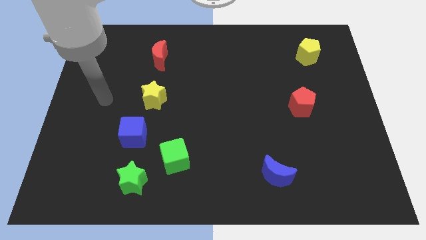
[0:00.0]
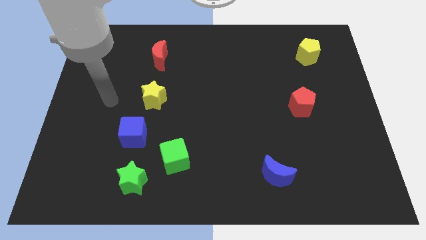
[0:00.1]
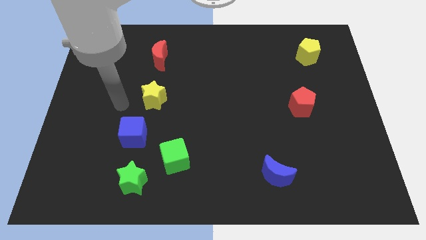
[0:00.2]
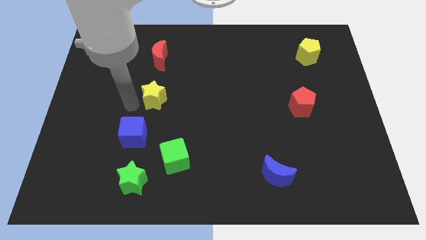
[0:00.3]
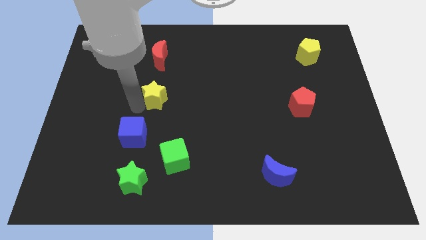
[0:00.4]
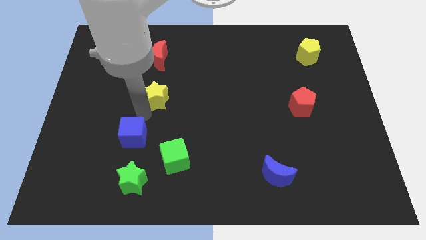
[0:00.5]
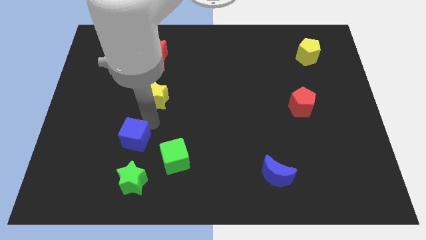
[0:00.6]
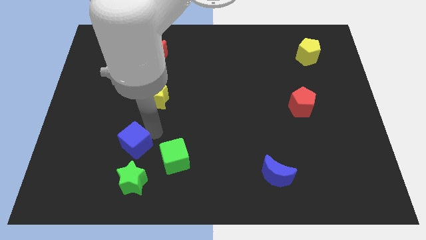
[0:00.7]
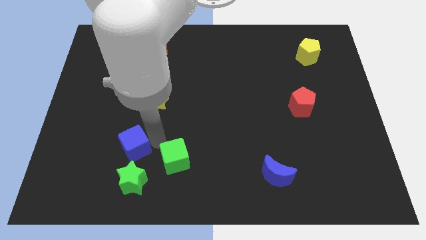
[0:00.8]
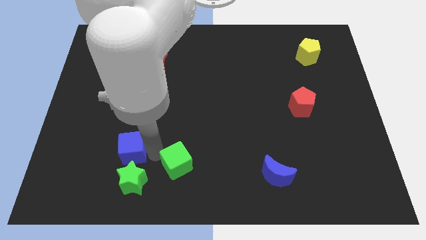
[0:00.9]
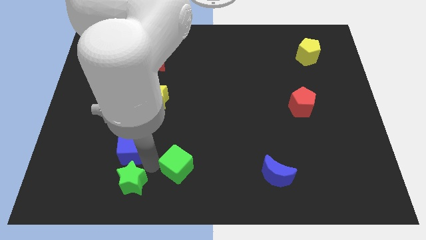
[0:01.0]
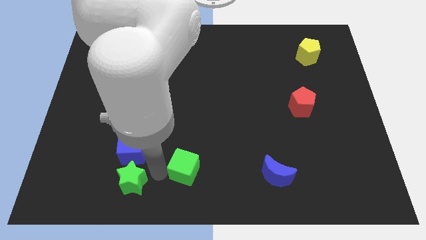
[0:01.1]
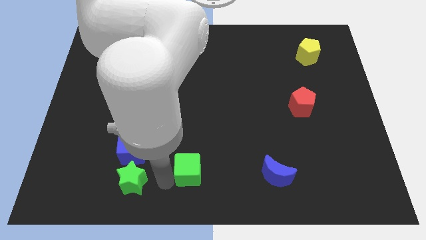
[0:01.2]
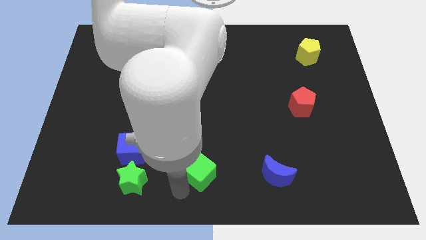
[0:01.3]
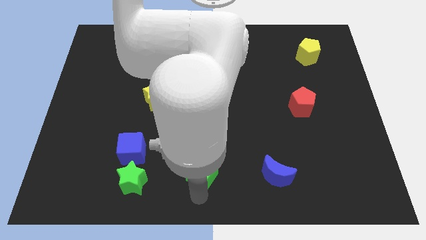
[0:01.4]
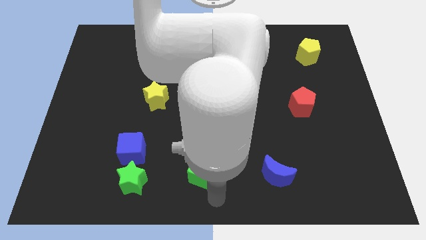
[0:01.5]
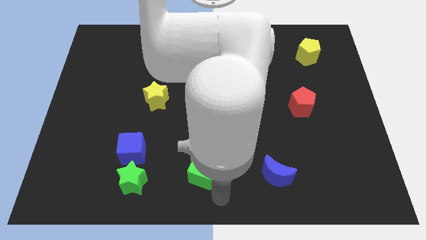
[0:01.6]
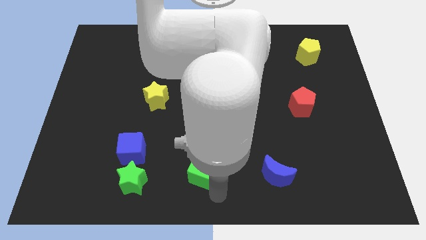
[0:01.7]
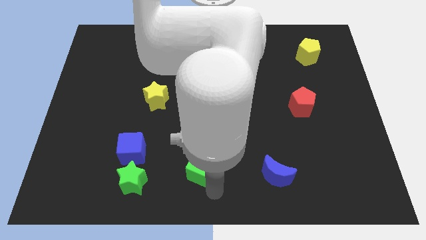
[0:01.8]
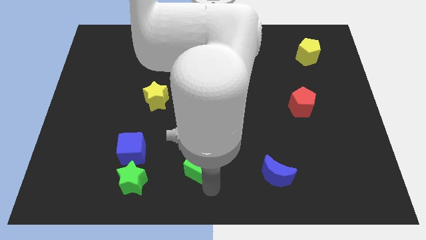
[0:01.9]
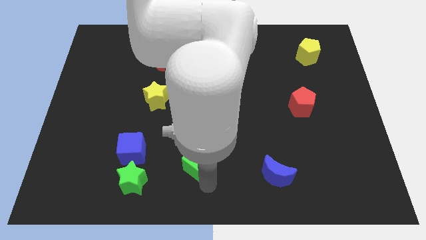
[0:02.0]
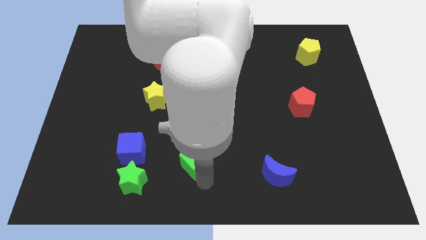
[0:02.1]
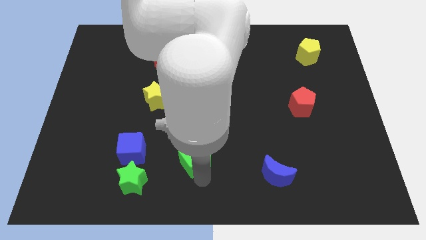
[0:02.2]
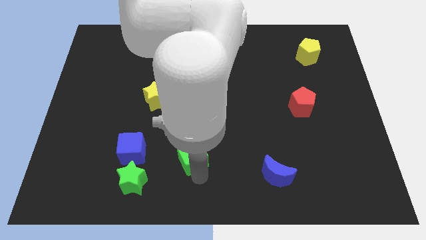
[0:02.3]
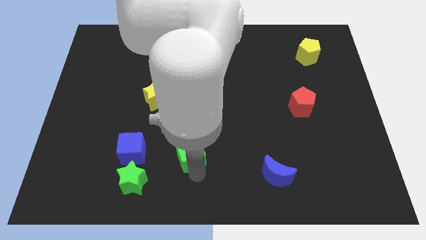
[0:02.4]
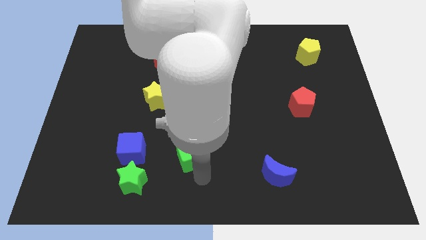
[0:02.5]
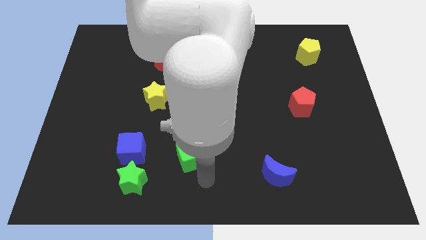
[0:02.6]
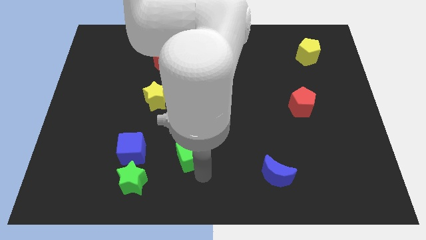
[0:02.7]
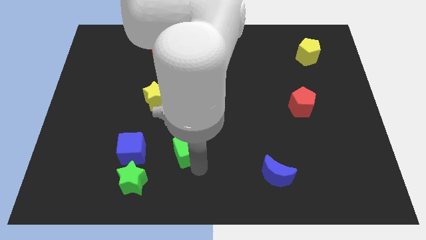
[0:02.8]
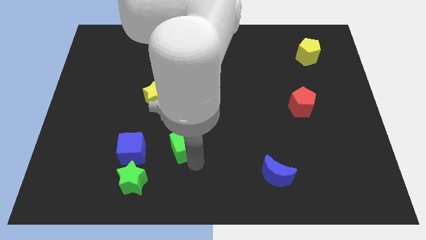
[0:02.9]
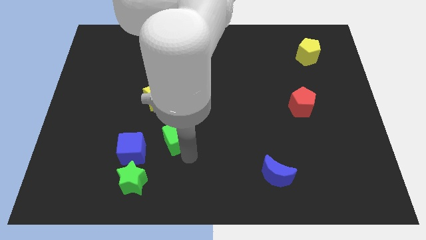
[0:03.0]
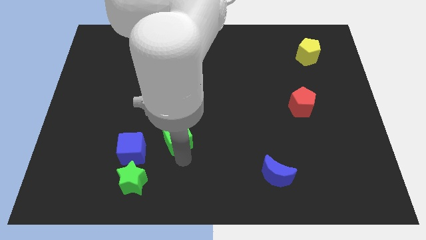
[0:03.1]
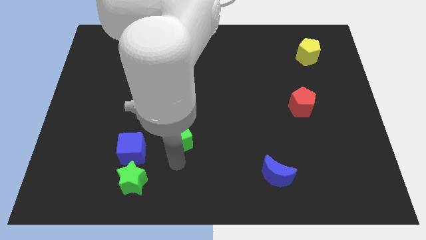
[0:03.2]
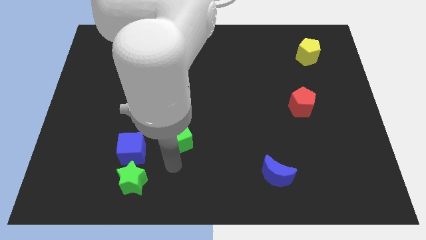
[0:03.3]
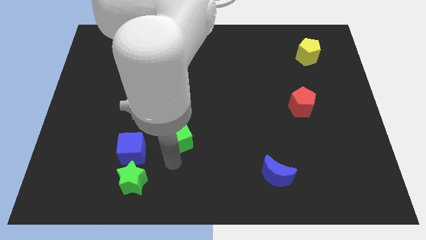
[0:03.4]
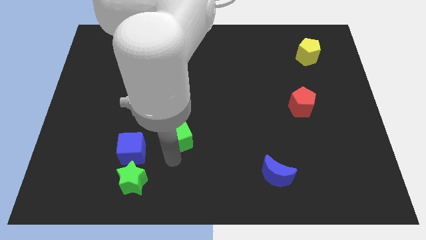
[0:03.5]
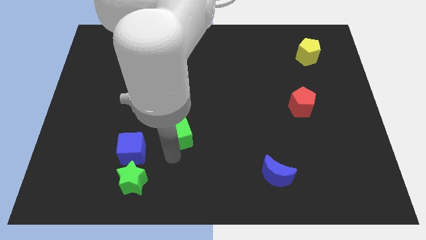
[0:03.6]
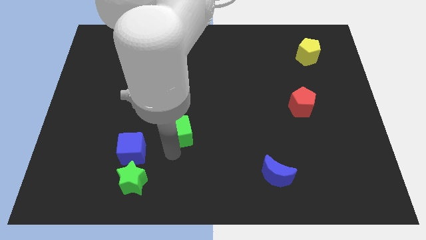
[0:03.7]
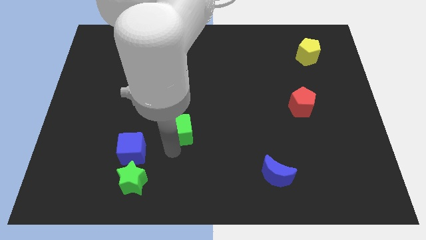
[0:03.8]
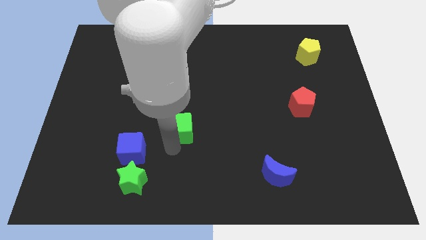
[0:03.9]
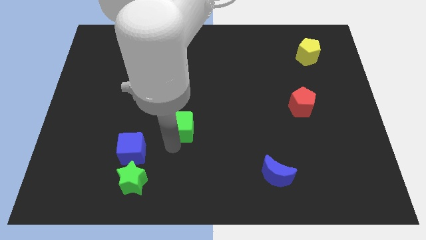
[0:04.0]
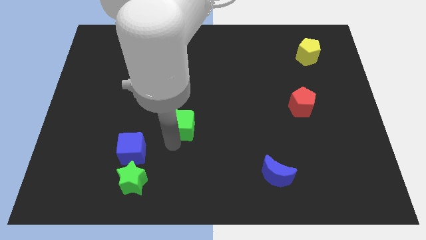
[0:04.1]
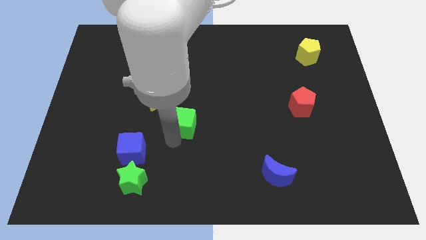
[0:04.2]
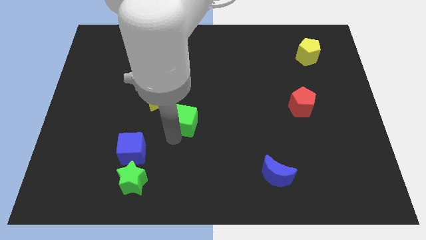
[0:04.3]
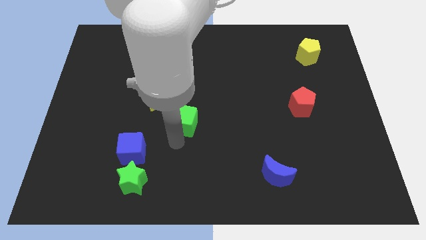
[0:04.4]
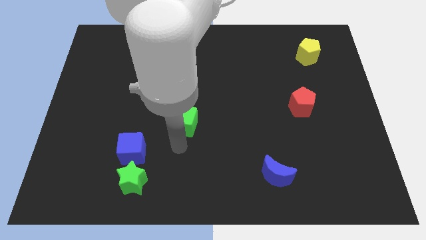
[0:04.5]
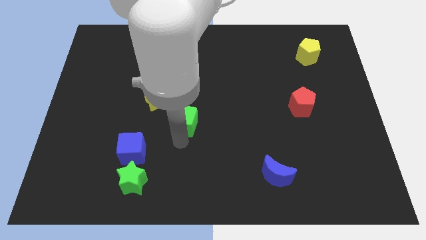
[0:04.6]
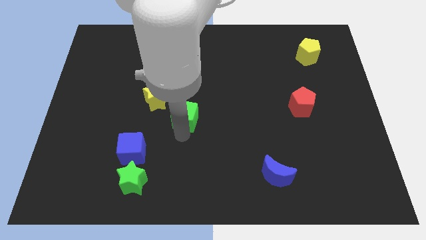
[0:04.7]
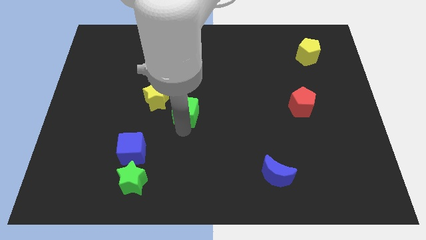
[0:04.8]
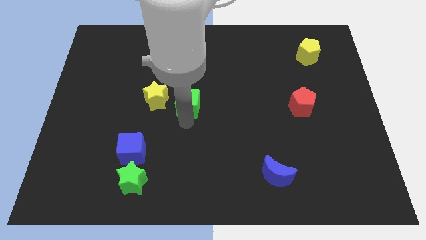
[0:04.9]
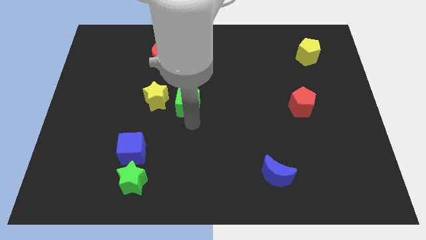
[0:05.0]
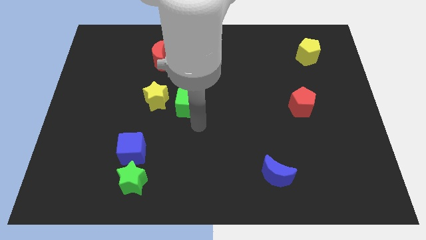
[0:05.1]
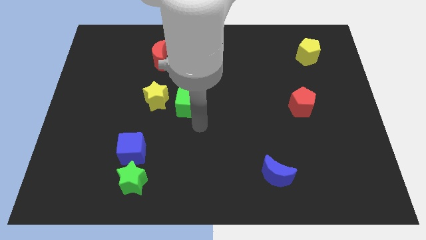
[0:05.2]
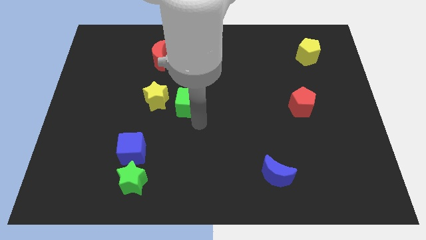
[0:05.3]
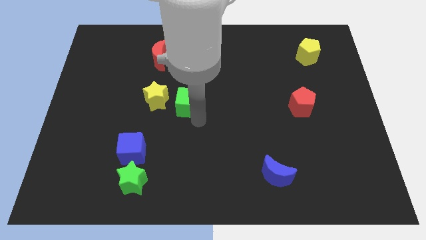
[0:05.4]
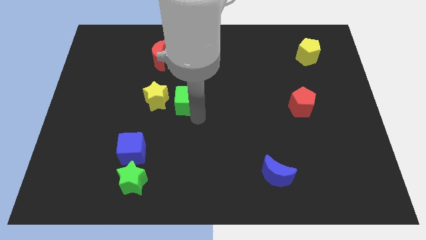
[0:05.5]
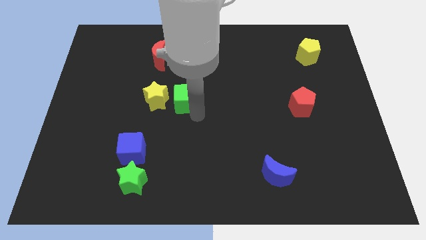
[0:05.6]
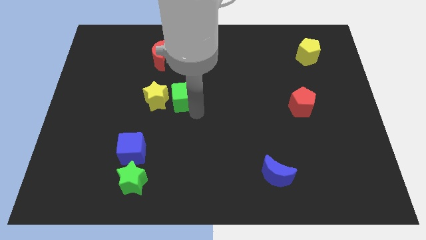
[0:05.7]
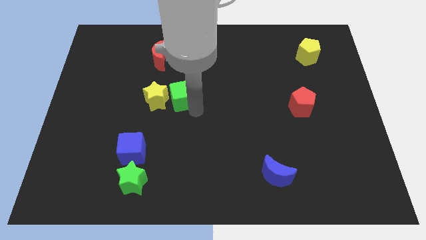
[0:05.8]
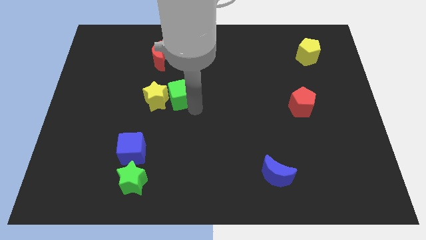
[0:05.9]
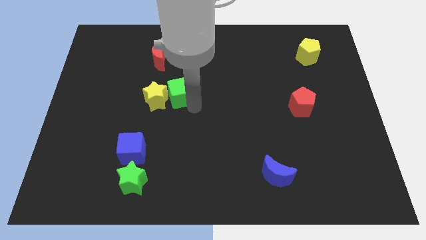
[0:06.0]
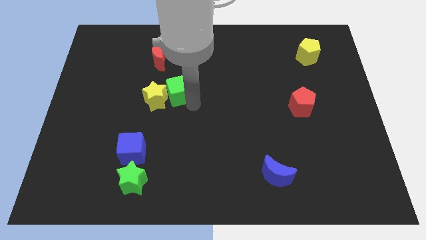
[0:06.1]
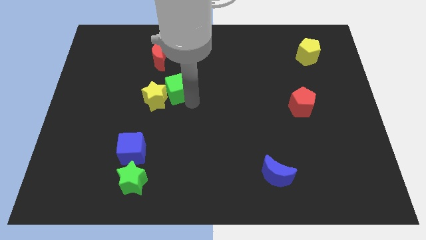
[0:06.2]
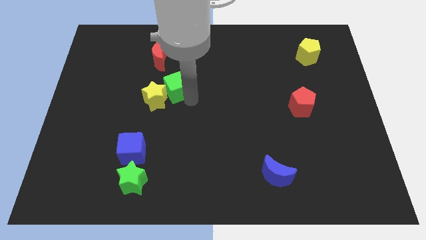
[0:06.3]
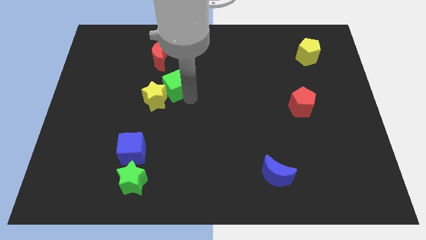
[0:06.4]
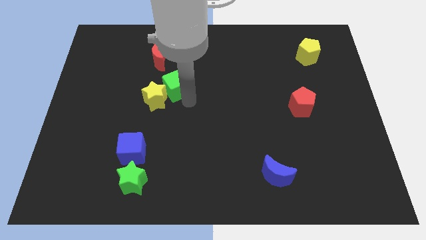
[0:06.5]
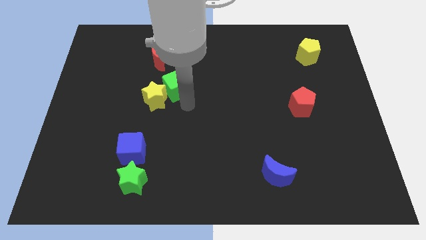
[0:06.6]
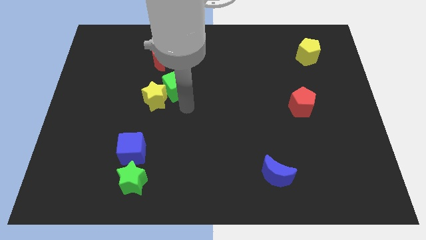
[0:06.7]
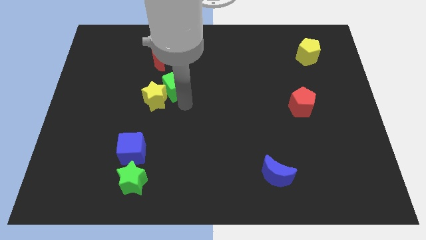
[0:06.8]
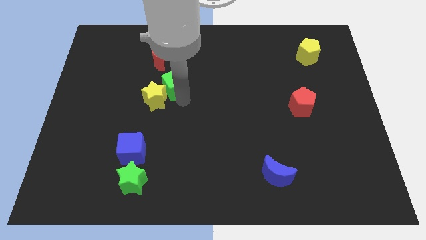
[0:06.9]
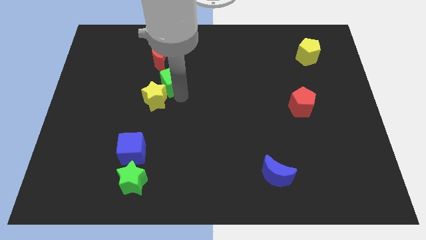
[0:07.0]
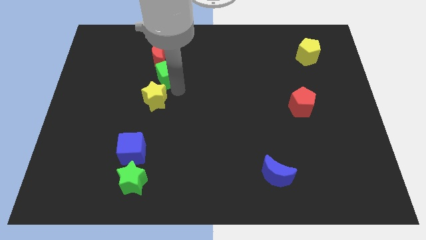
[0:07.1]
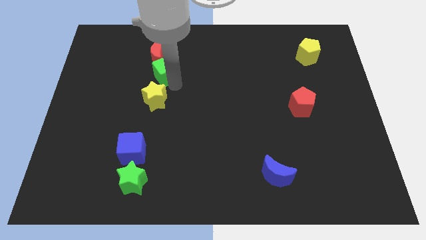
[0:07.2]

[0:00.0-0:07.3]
push the green cube next to the red moon

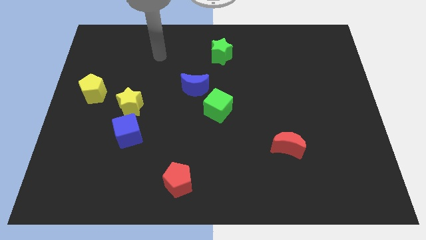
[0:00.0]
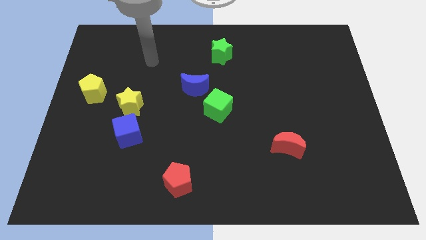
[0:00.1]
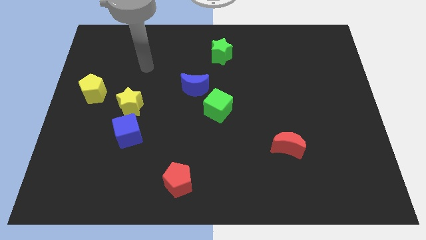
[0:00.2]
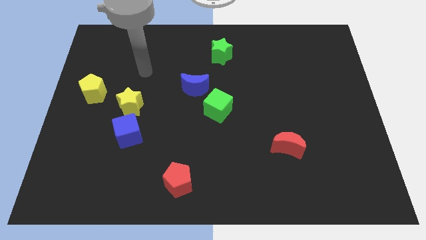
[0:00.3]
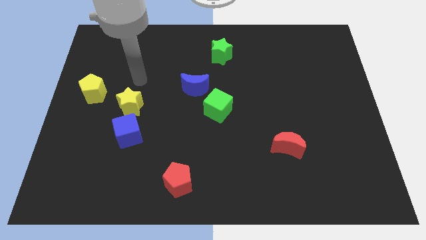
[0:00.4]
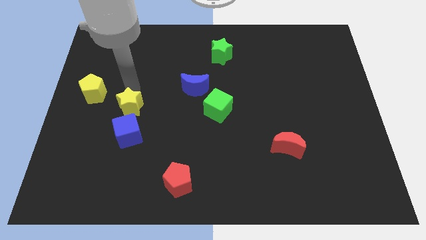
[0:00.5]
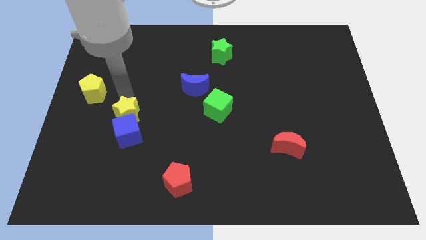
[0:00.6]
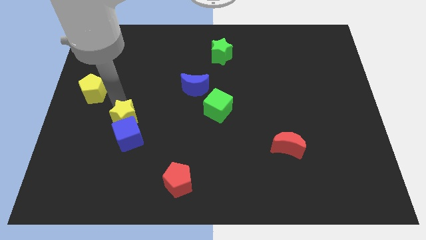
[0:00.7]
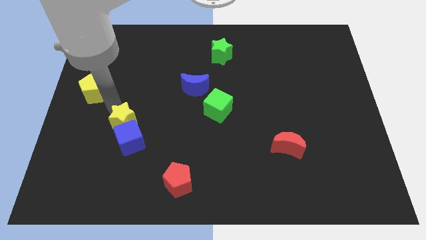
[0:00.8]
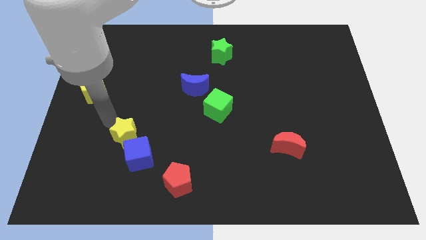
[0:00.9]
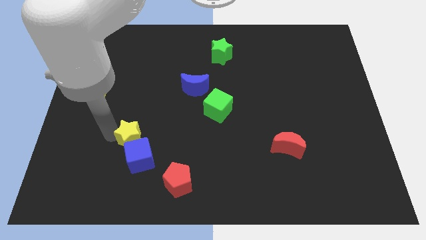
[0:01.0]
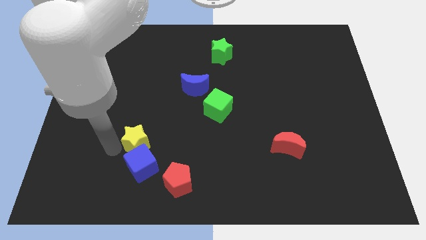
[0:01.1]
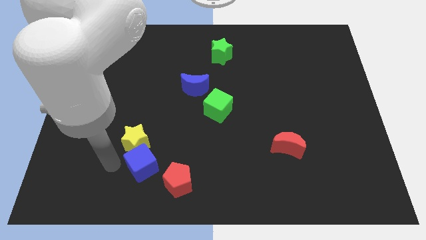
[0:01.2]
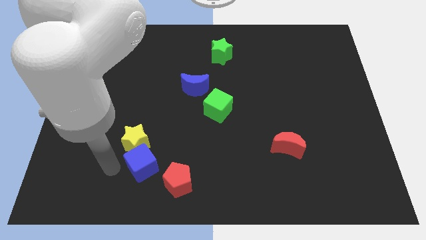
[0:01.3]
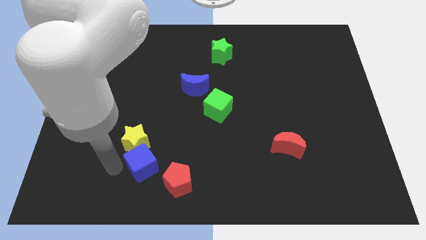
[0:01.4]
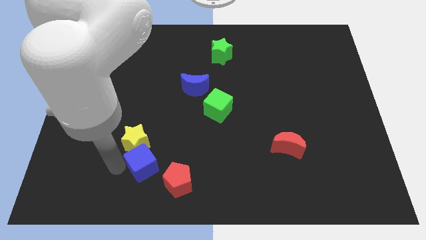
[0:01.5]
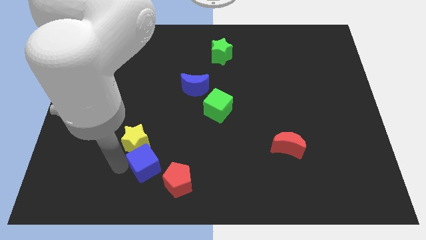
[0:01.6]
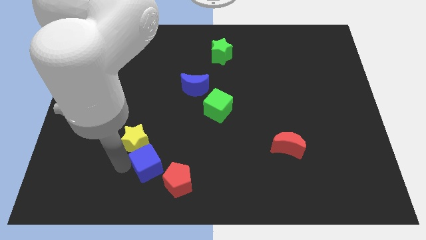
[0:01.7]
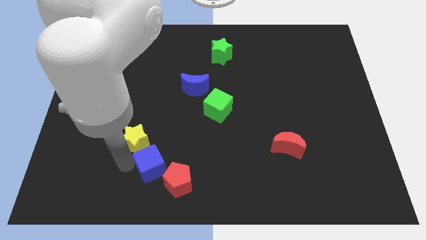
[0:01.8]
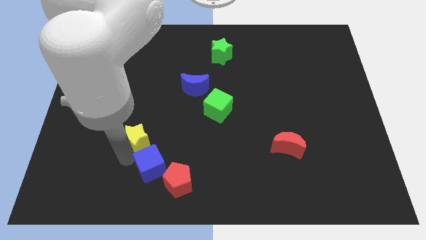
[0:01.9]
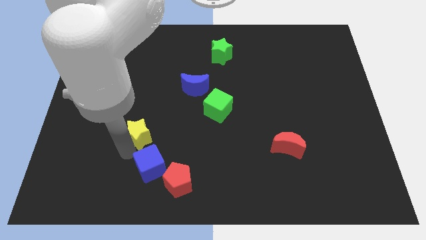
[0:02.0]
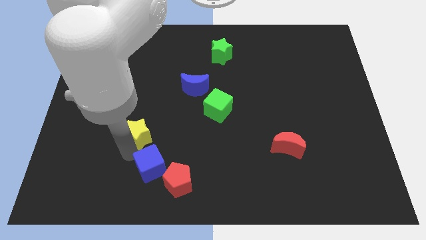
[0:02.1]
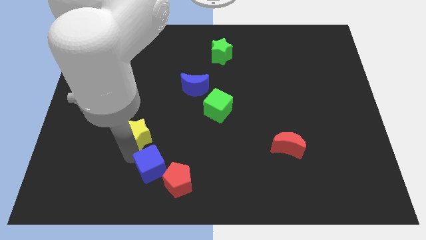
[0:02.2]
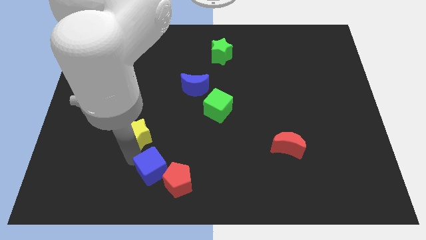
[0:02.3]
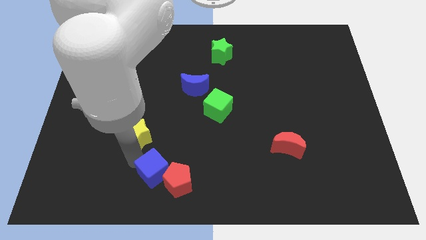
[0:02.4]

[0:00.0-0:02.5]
put the blue cube towards the red pentagon
